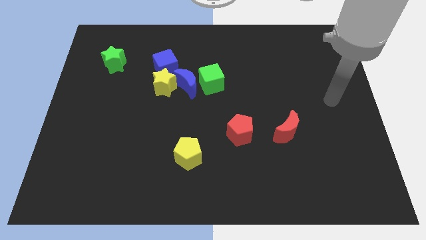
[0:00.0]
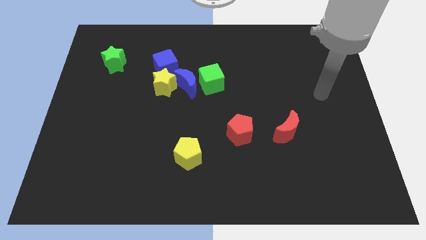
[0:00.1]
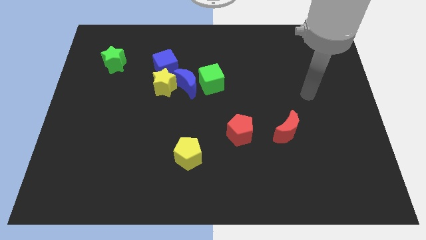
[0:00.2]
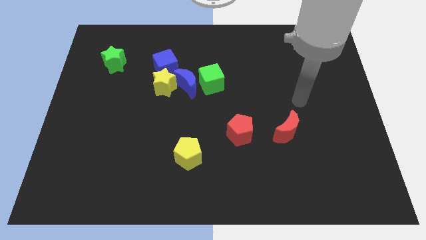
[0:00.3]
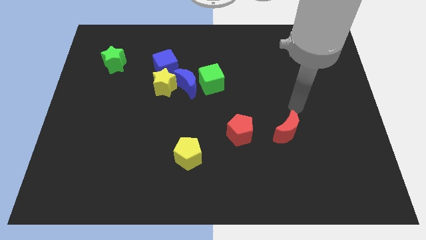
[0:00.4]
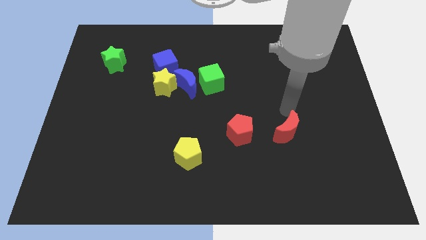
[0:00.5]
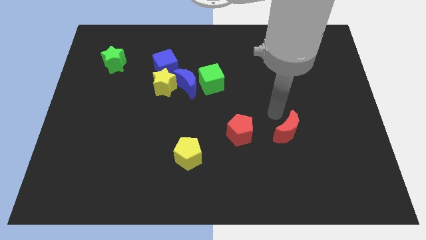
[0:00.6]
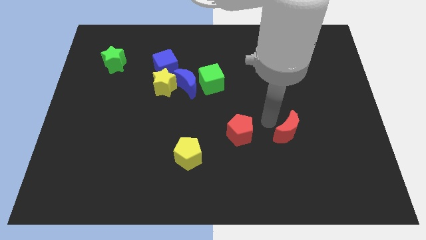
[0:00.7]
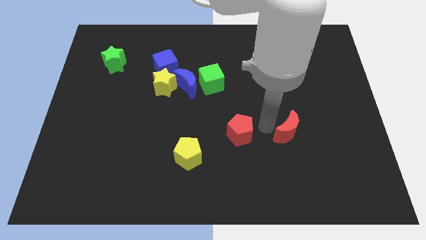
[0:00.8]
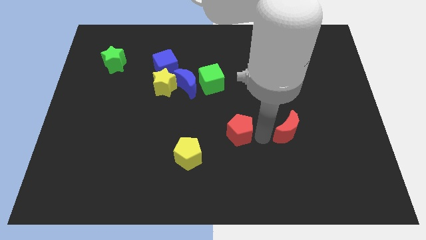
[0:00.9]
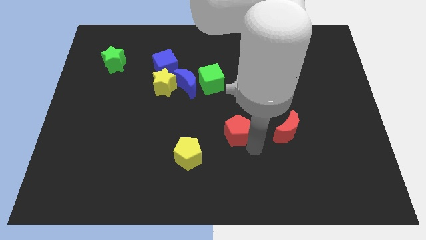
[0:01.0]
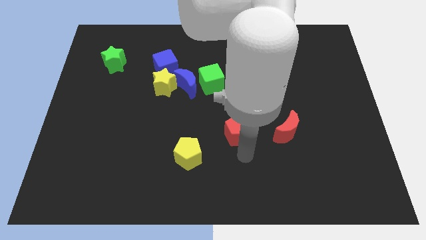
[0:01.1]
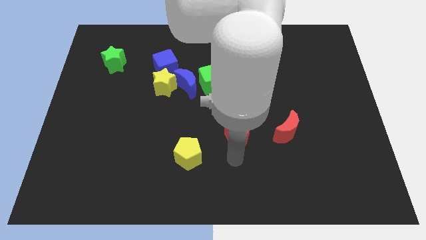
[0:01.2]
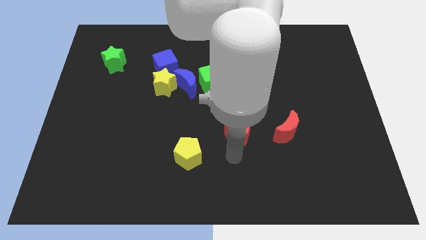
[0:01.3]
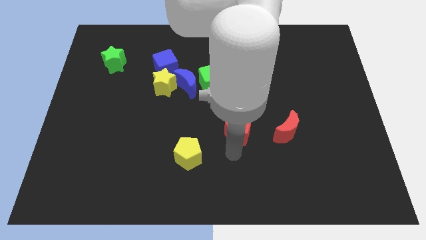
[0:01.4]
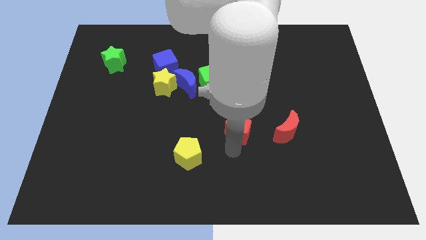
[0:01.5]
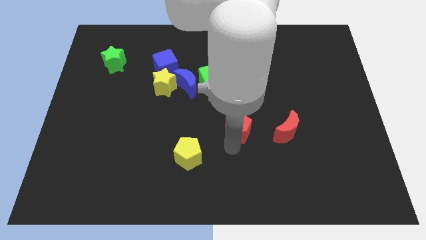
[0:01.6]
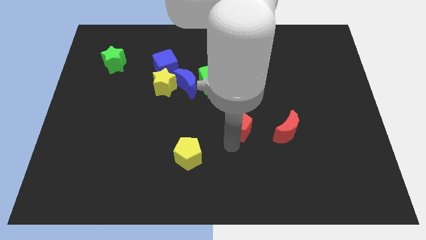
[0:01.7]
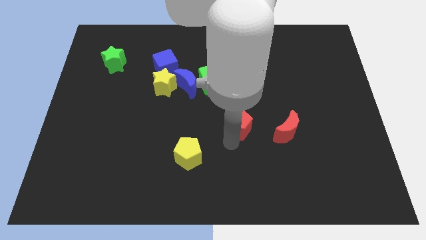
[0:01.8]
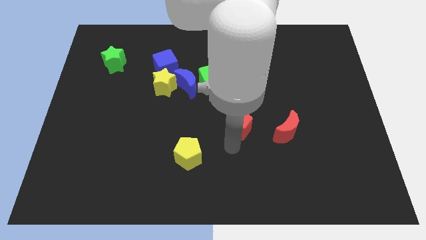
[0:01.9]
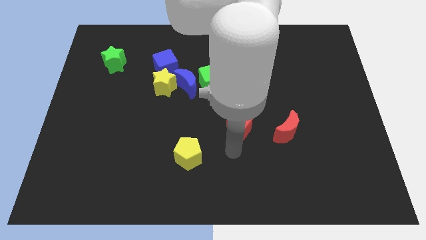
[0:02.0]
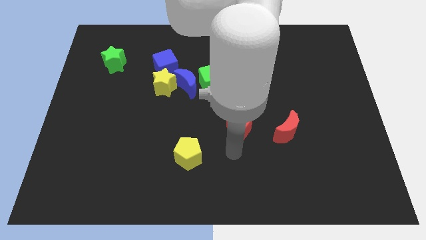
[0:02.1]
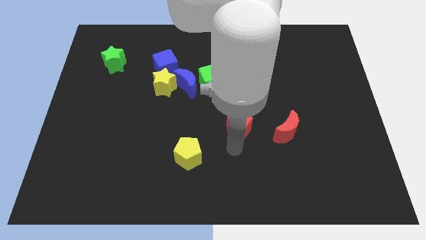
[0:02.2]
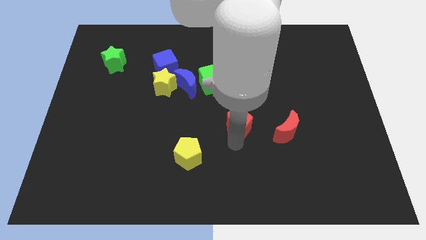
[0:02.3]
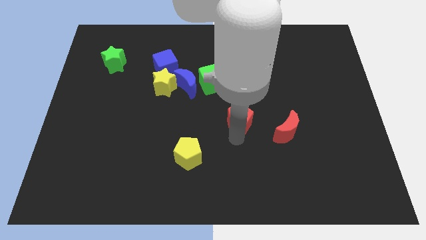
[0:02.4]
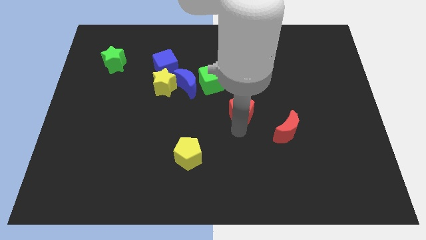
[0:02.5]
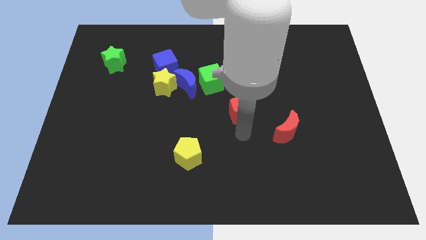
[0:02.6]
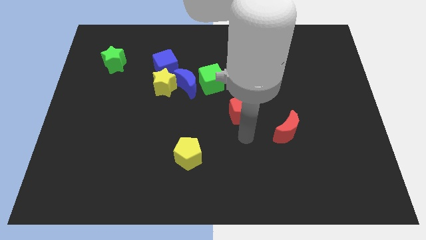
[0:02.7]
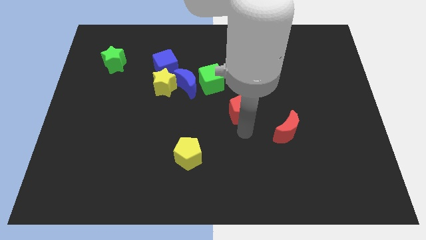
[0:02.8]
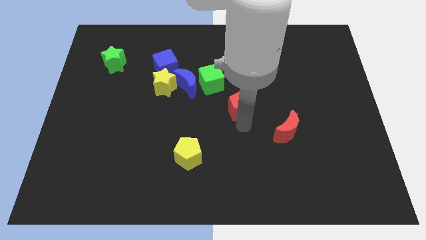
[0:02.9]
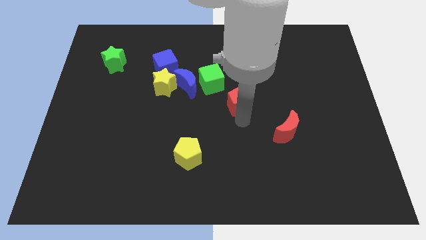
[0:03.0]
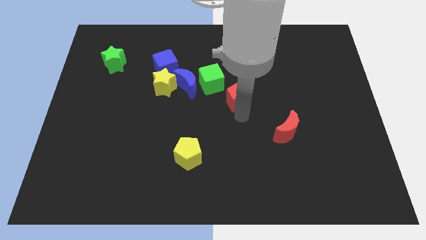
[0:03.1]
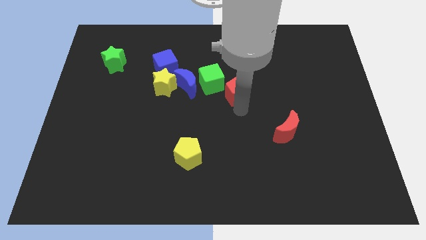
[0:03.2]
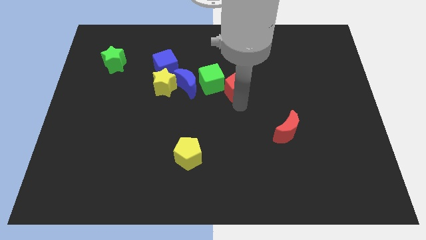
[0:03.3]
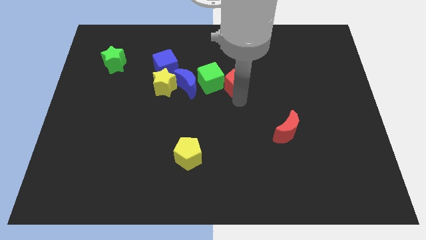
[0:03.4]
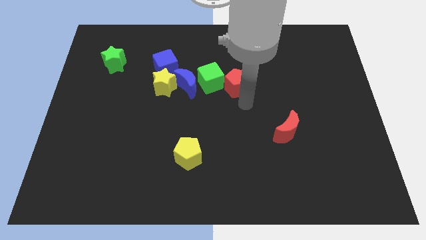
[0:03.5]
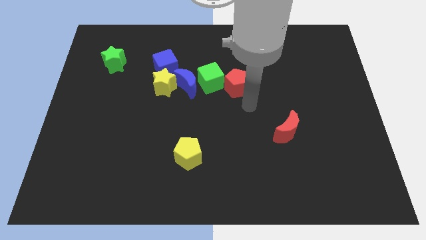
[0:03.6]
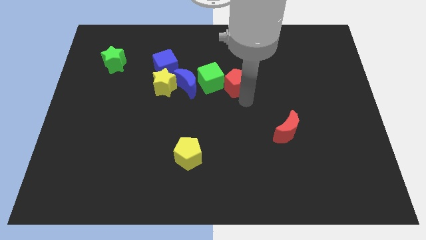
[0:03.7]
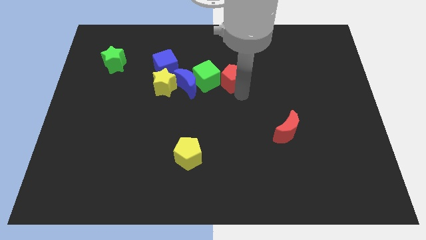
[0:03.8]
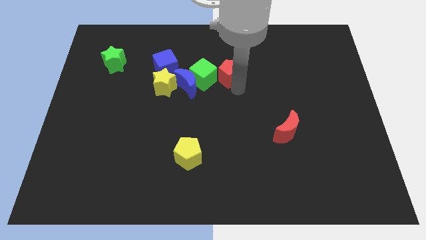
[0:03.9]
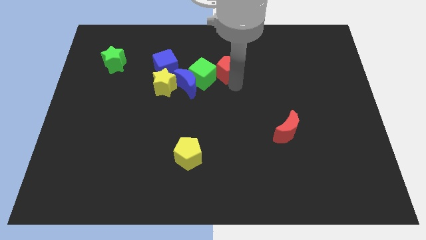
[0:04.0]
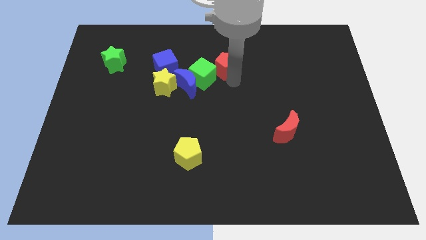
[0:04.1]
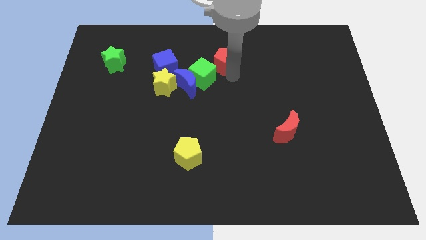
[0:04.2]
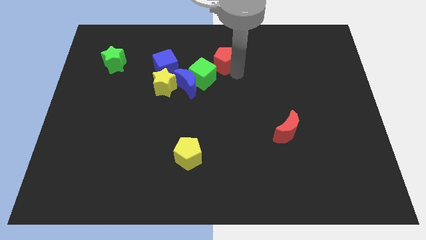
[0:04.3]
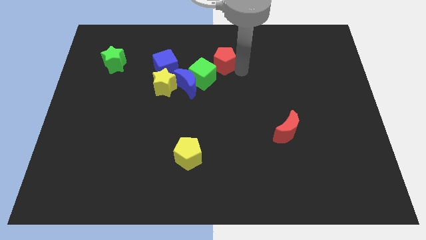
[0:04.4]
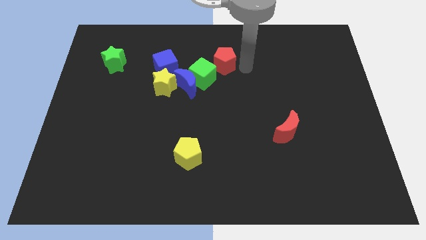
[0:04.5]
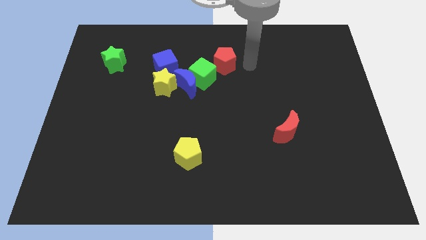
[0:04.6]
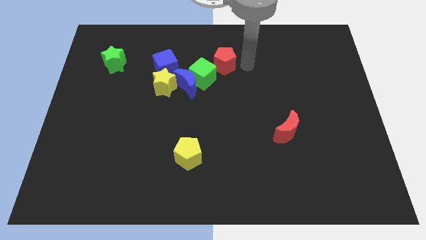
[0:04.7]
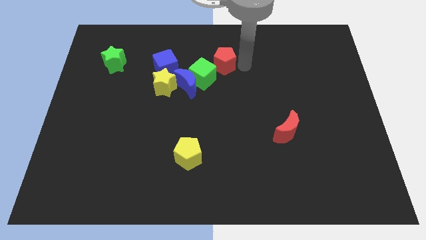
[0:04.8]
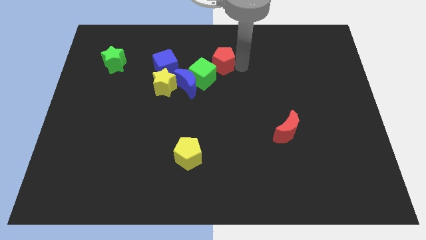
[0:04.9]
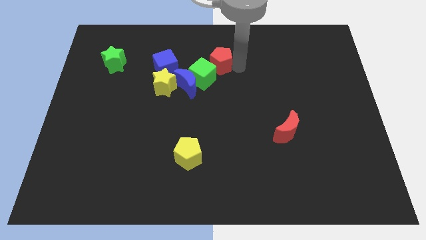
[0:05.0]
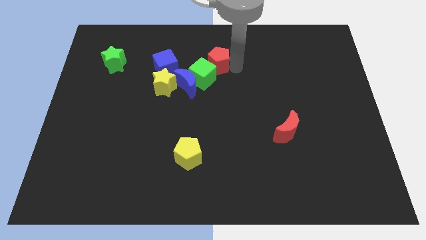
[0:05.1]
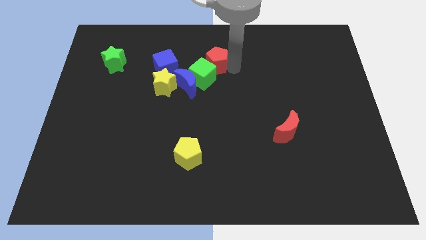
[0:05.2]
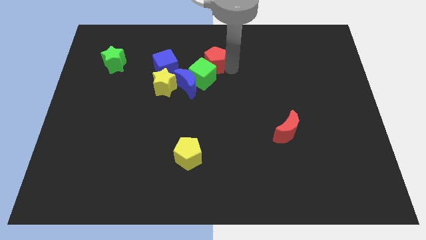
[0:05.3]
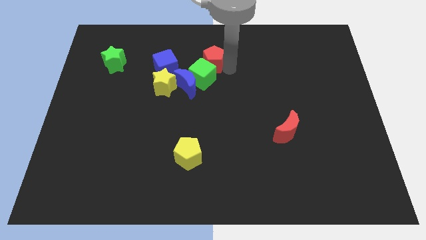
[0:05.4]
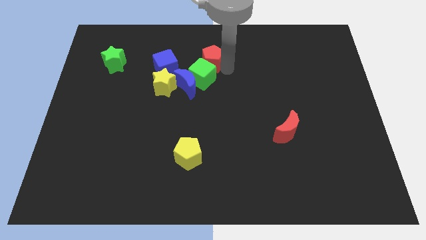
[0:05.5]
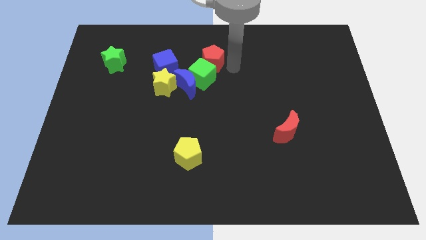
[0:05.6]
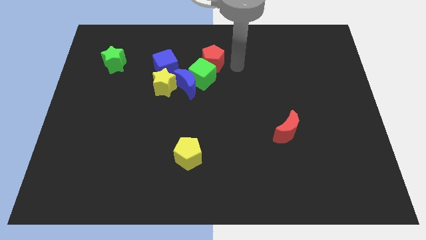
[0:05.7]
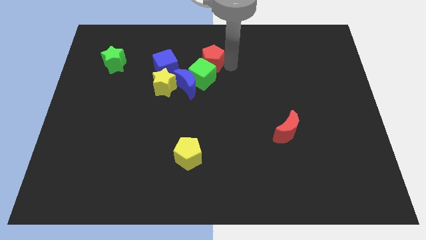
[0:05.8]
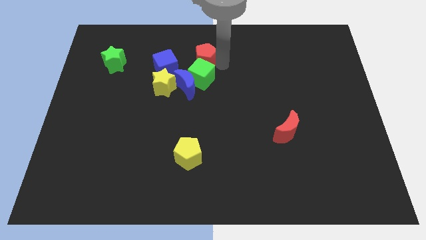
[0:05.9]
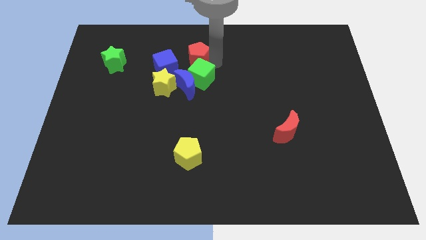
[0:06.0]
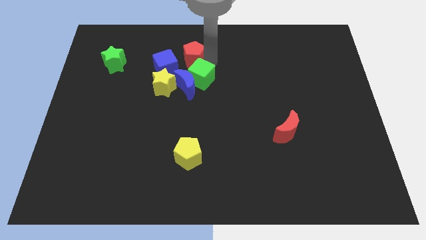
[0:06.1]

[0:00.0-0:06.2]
slide the red pentagon up and left

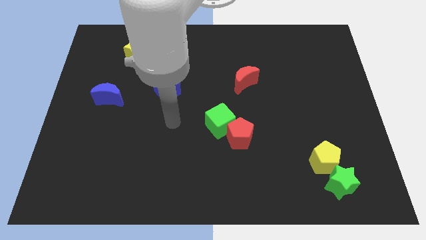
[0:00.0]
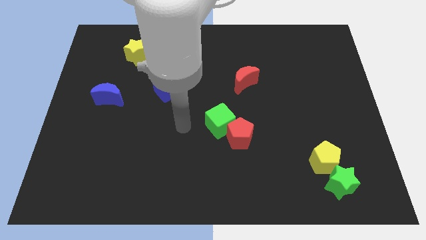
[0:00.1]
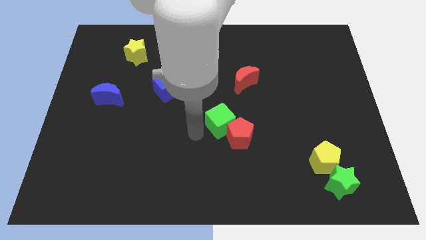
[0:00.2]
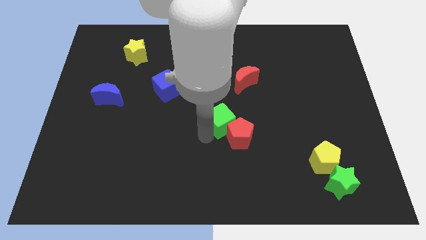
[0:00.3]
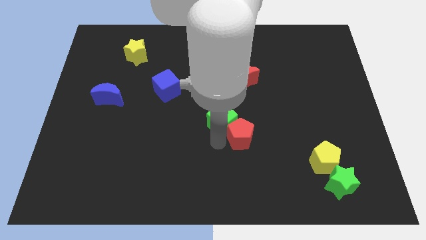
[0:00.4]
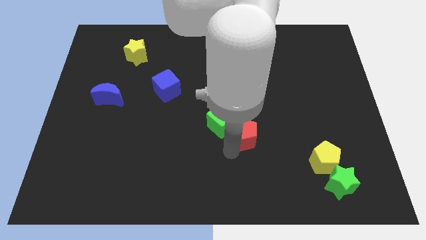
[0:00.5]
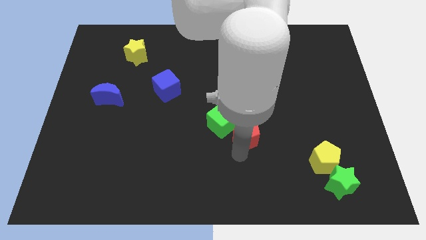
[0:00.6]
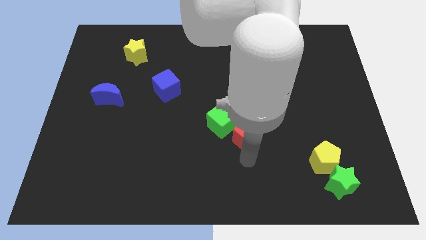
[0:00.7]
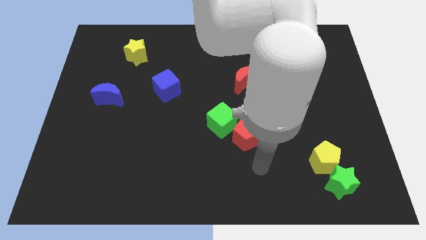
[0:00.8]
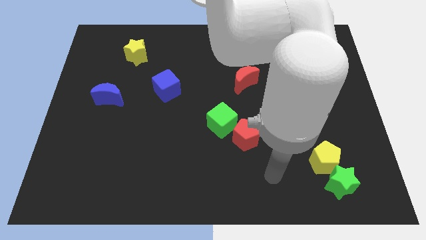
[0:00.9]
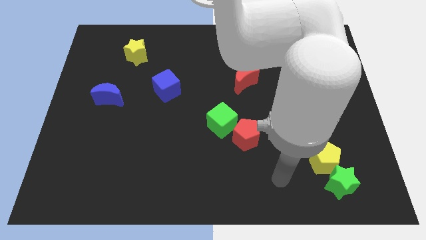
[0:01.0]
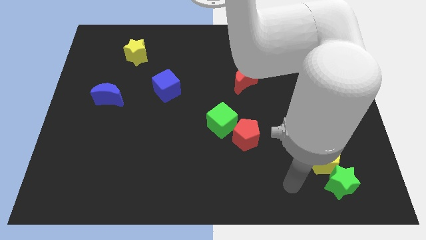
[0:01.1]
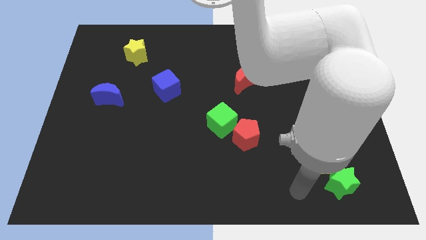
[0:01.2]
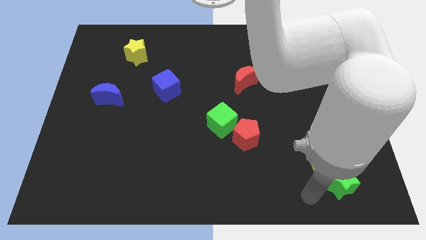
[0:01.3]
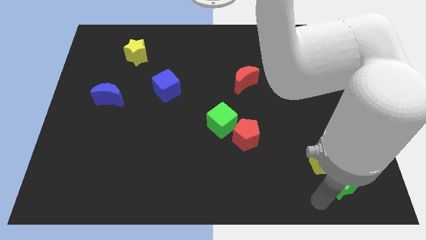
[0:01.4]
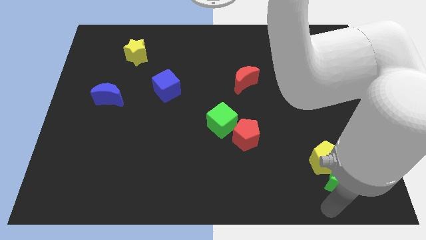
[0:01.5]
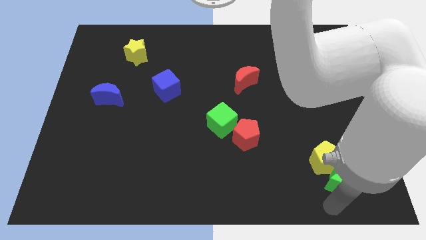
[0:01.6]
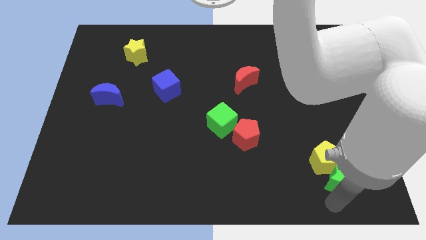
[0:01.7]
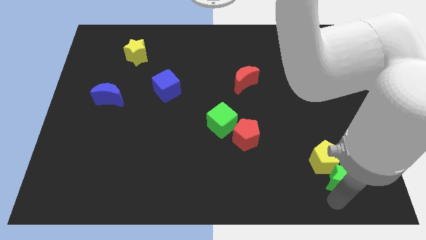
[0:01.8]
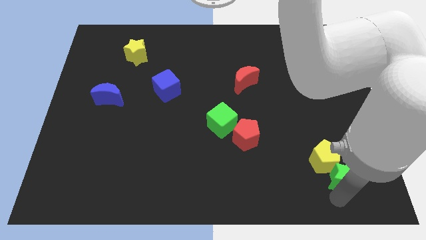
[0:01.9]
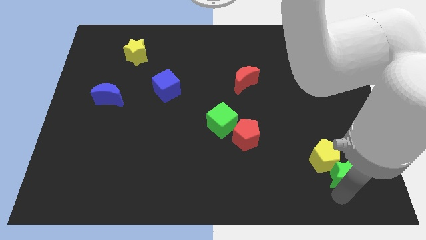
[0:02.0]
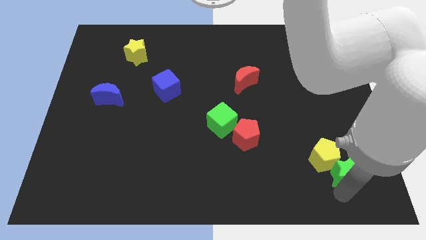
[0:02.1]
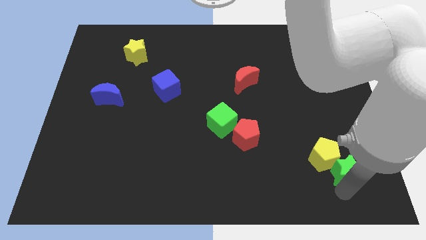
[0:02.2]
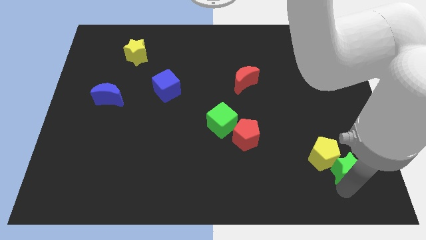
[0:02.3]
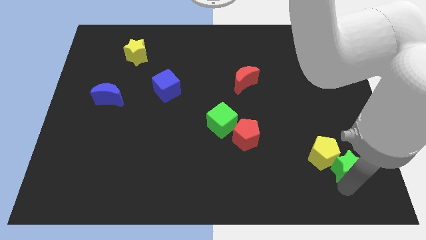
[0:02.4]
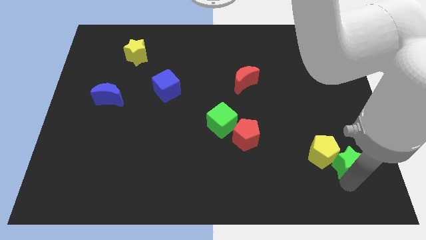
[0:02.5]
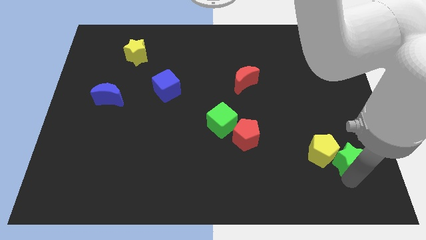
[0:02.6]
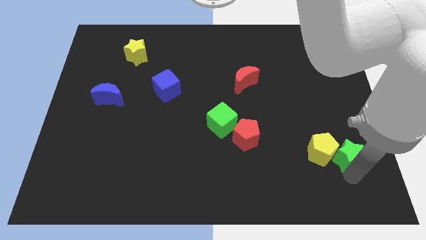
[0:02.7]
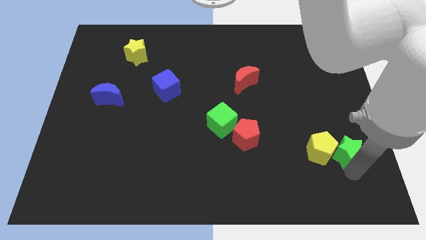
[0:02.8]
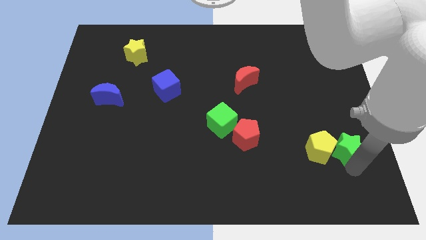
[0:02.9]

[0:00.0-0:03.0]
slightly slide the green star upwards
